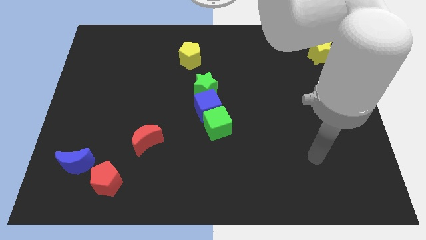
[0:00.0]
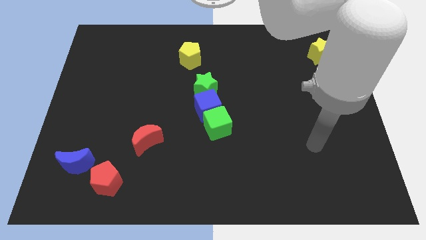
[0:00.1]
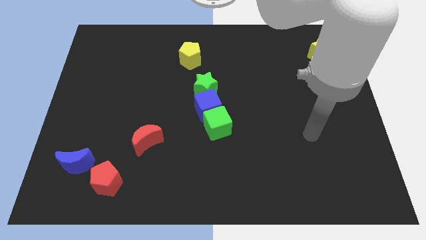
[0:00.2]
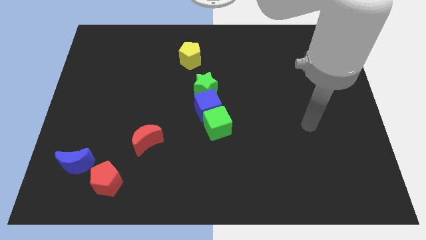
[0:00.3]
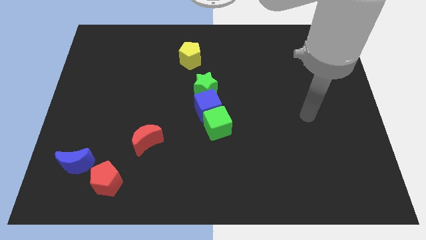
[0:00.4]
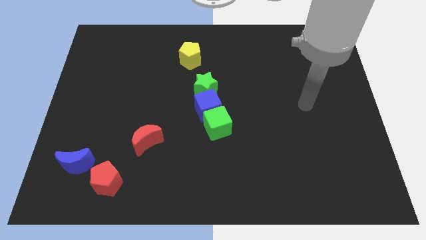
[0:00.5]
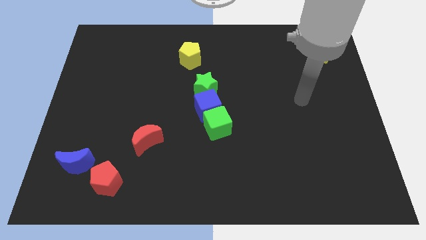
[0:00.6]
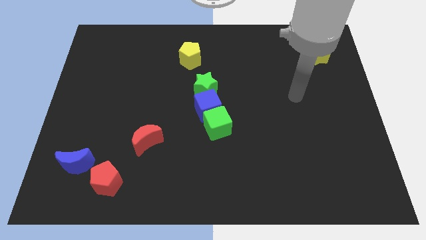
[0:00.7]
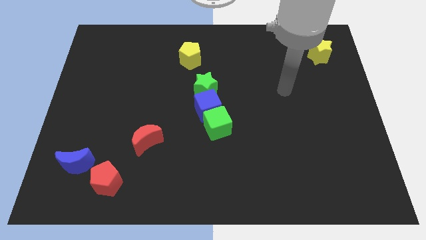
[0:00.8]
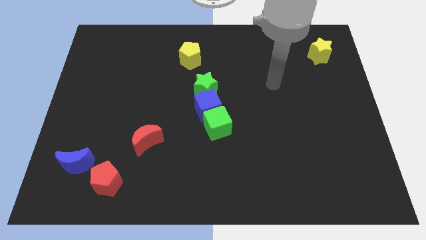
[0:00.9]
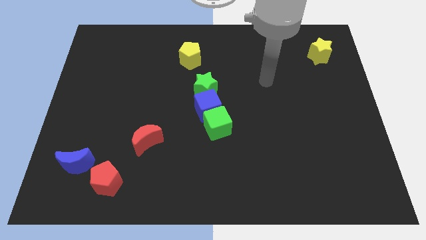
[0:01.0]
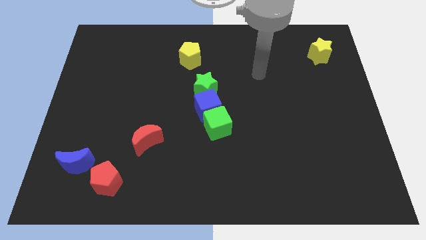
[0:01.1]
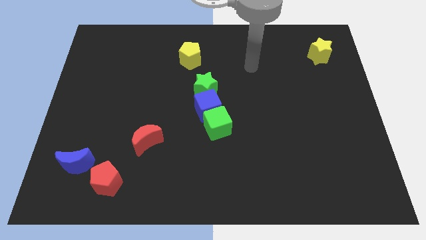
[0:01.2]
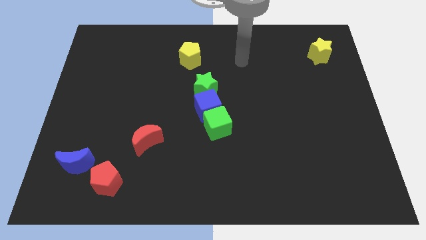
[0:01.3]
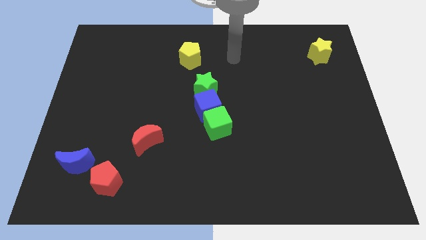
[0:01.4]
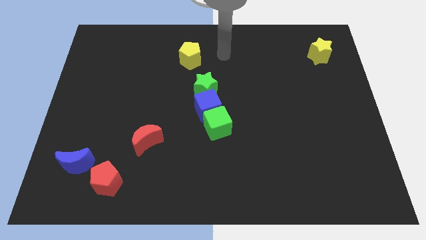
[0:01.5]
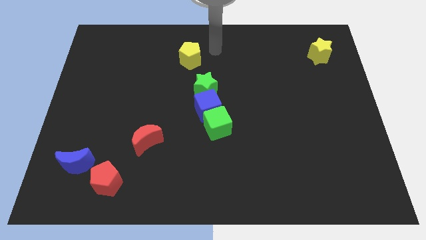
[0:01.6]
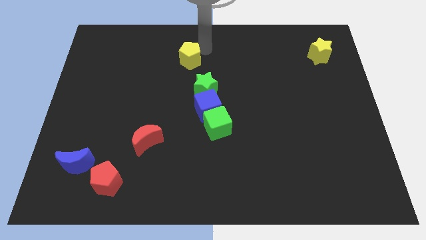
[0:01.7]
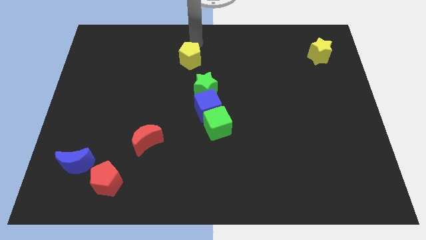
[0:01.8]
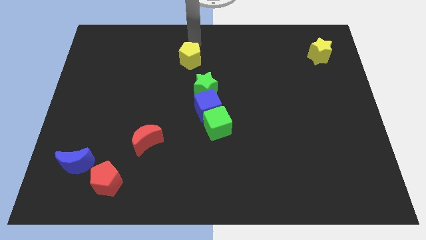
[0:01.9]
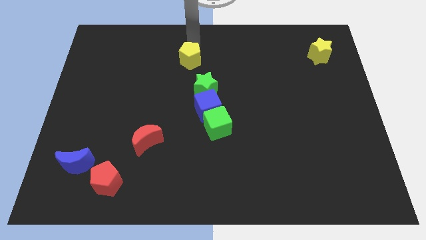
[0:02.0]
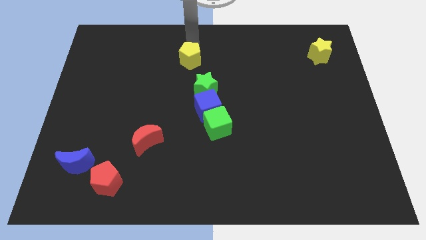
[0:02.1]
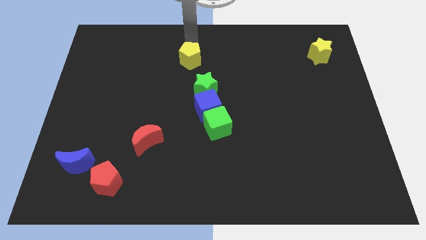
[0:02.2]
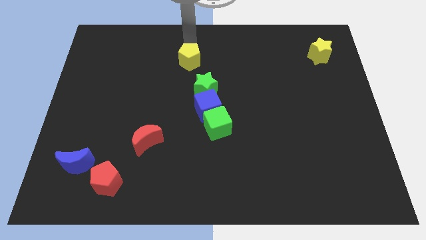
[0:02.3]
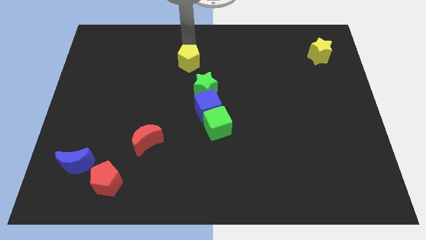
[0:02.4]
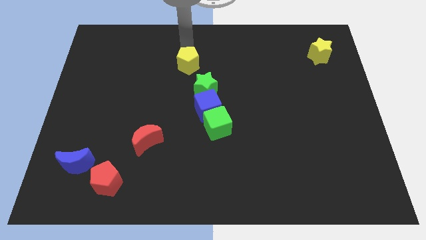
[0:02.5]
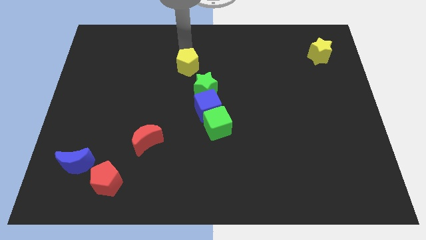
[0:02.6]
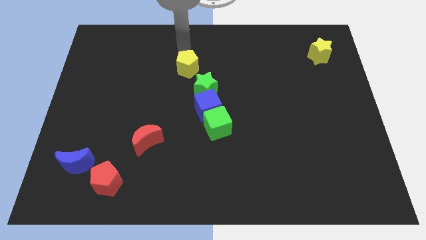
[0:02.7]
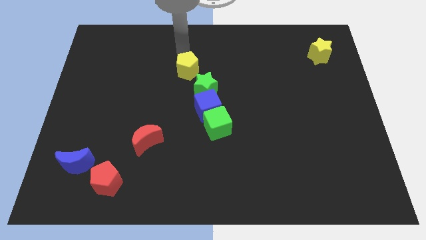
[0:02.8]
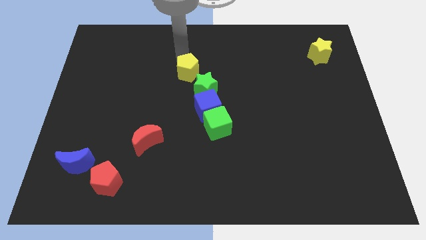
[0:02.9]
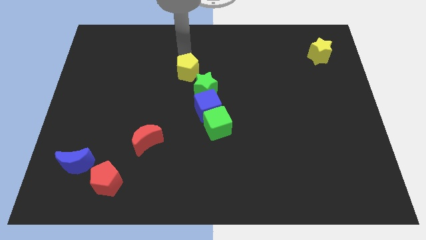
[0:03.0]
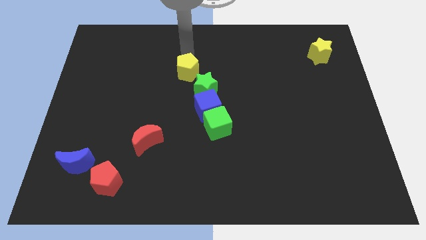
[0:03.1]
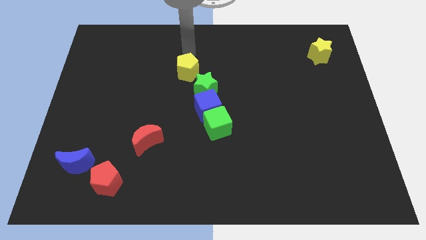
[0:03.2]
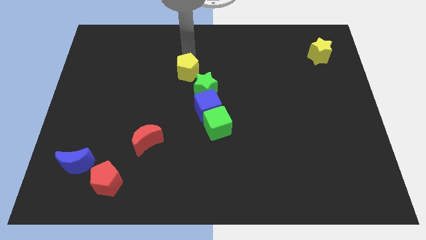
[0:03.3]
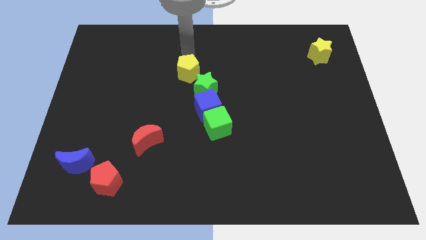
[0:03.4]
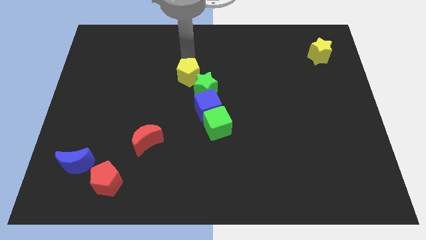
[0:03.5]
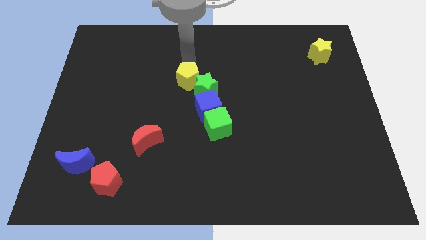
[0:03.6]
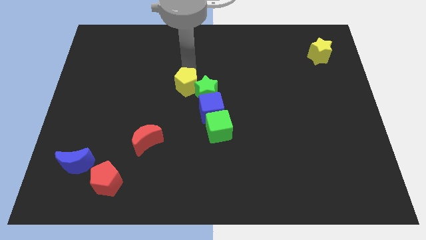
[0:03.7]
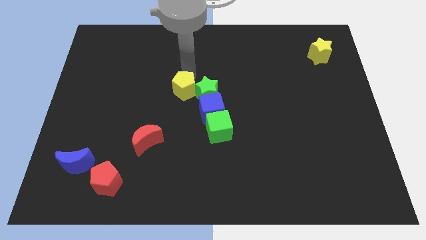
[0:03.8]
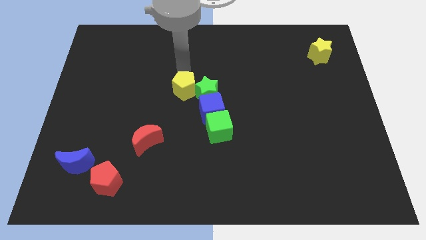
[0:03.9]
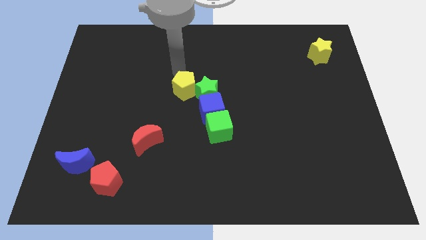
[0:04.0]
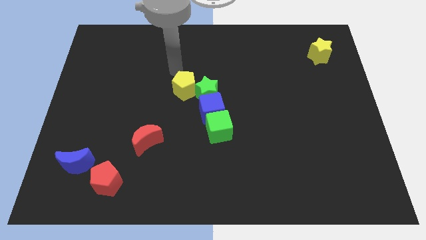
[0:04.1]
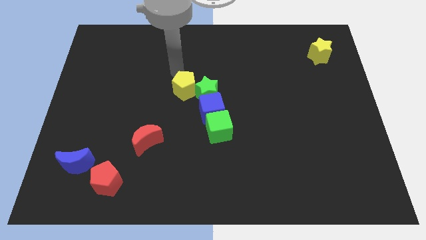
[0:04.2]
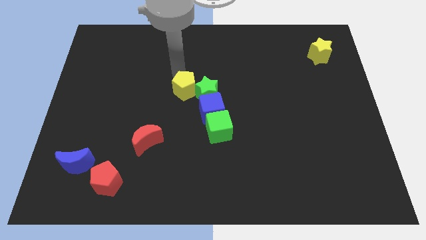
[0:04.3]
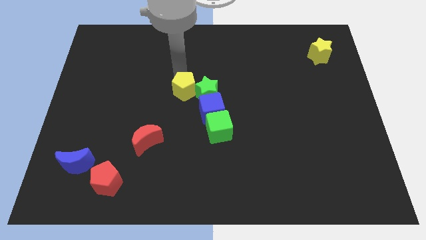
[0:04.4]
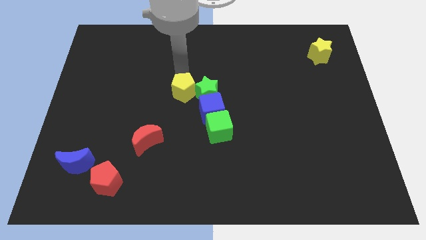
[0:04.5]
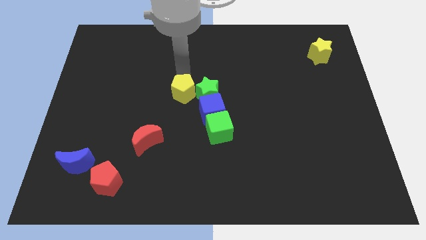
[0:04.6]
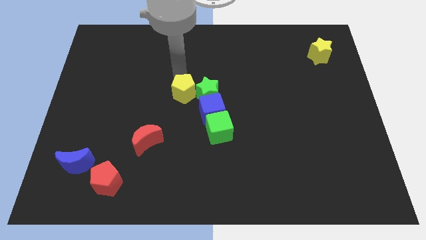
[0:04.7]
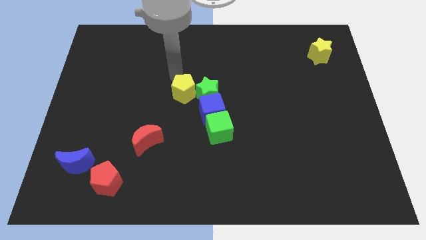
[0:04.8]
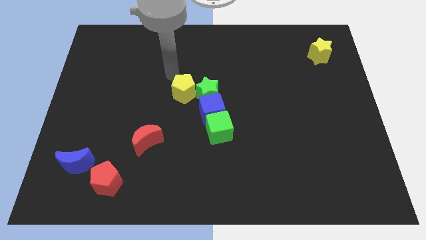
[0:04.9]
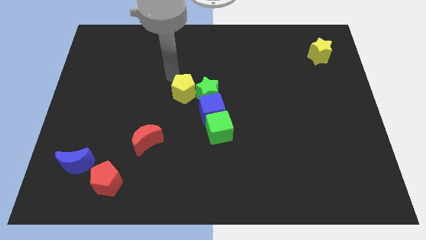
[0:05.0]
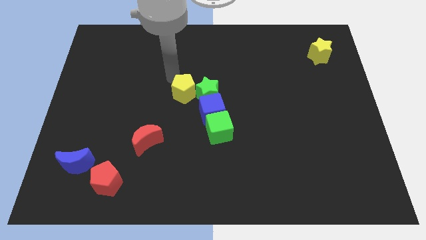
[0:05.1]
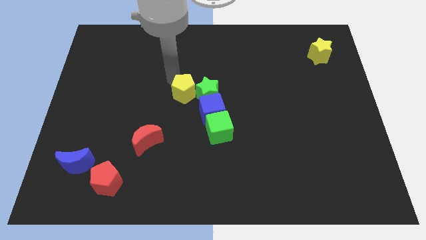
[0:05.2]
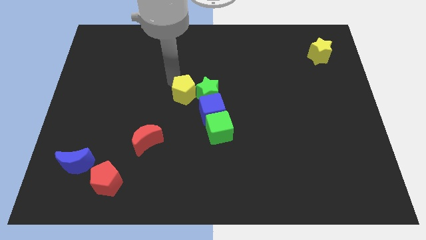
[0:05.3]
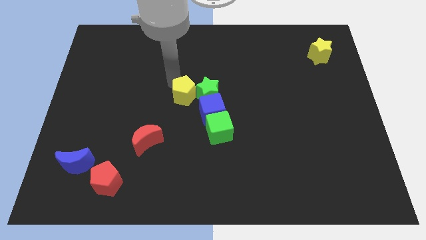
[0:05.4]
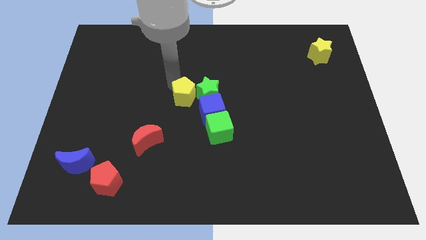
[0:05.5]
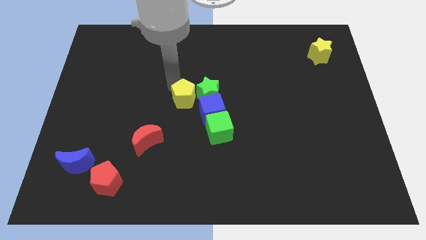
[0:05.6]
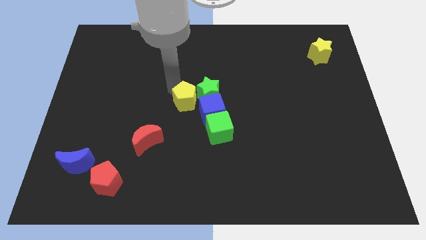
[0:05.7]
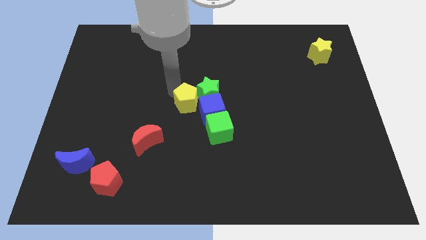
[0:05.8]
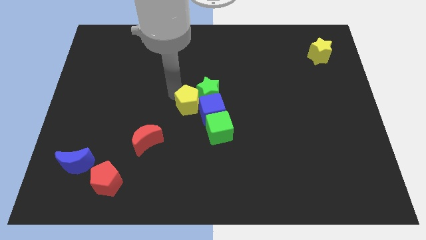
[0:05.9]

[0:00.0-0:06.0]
slide the yellow pentagon towards the blue cube

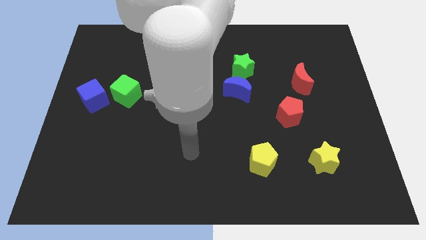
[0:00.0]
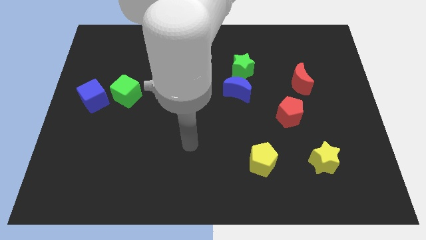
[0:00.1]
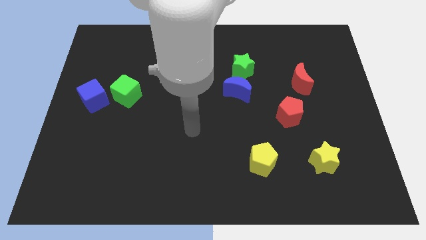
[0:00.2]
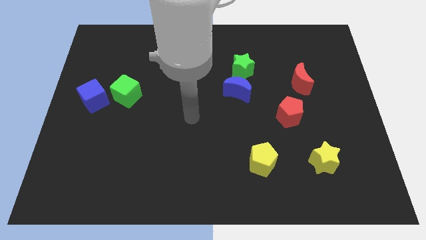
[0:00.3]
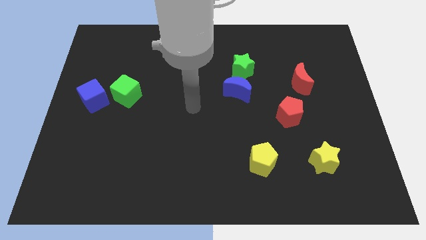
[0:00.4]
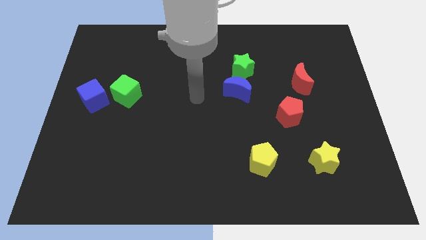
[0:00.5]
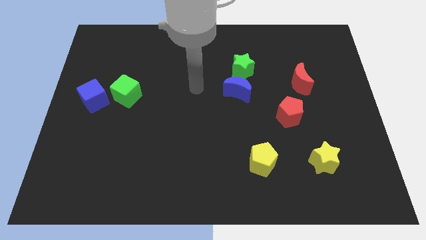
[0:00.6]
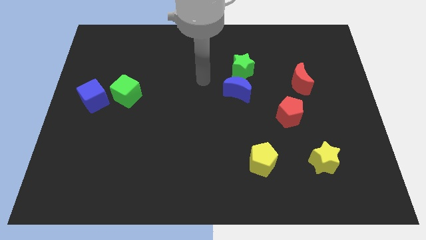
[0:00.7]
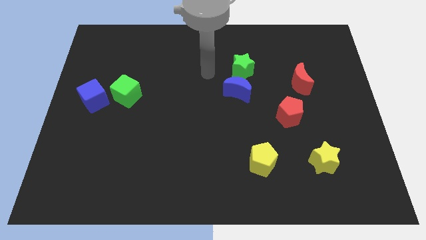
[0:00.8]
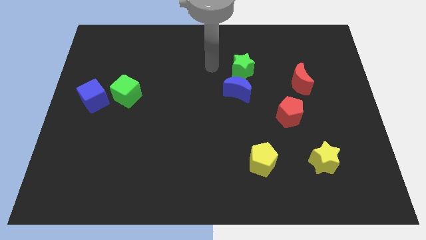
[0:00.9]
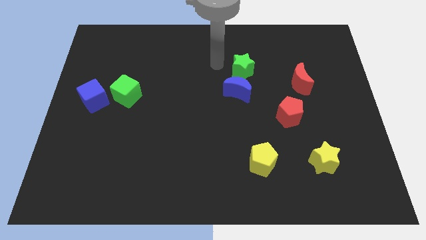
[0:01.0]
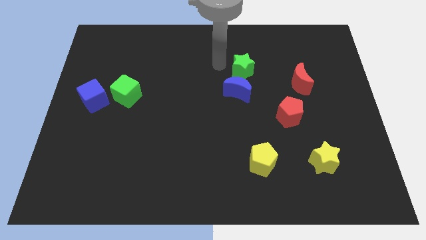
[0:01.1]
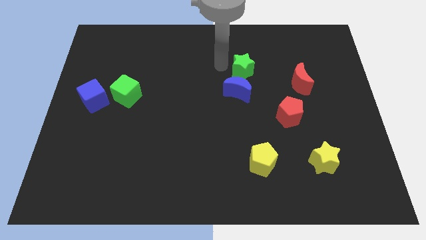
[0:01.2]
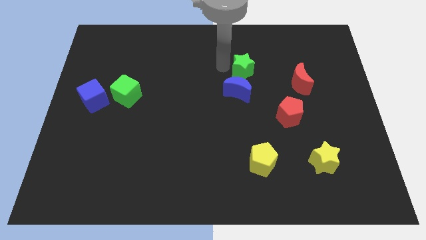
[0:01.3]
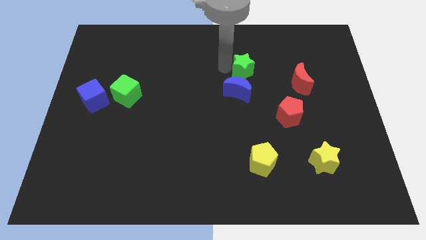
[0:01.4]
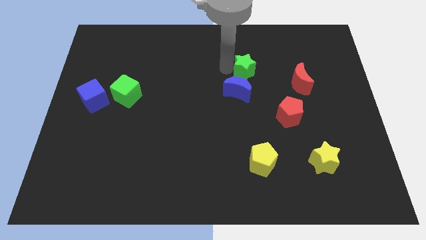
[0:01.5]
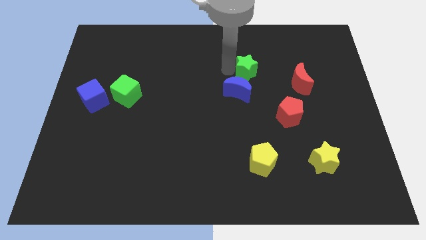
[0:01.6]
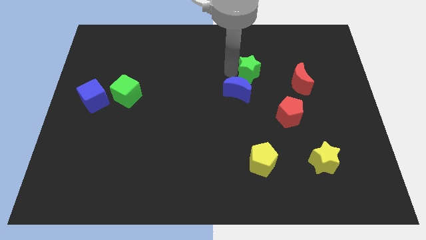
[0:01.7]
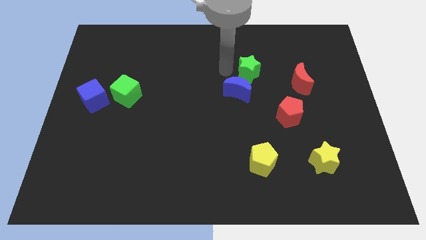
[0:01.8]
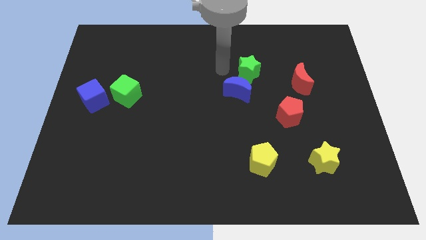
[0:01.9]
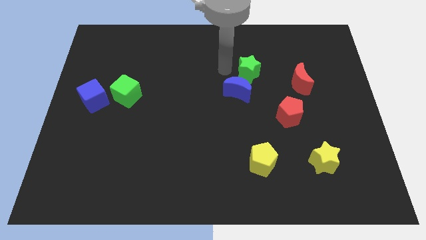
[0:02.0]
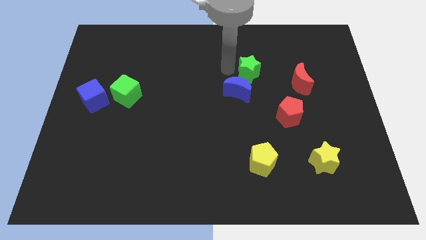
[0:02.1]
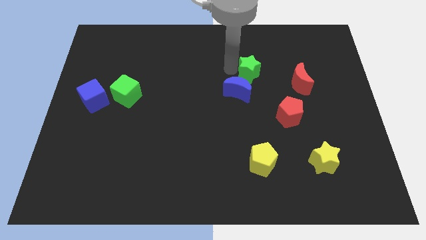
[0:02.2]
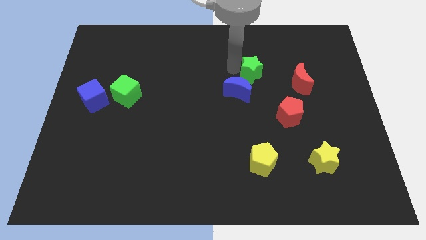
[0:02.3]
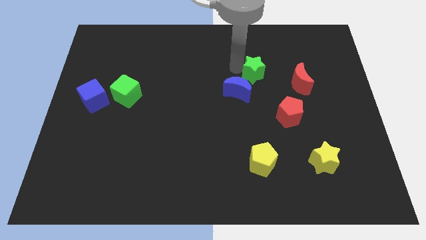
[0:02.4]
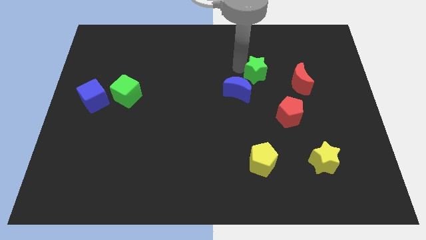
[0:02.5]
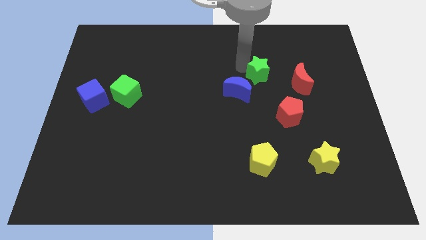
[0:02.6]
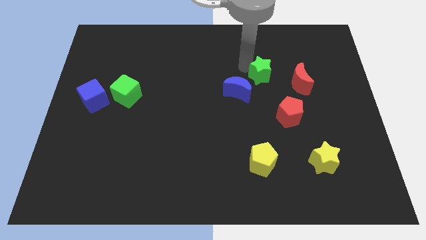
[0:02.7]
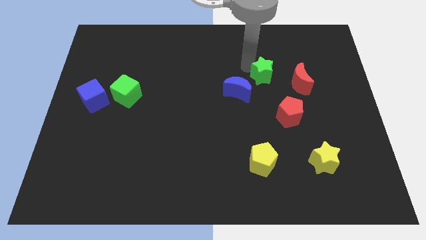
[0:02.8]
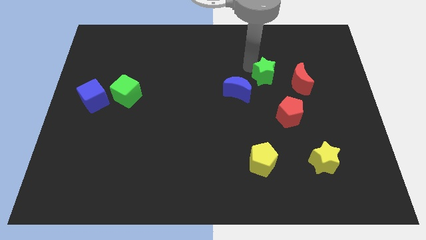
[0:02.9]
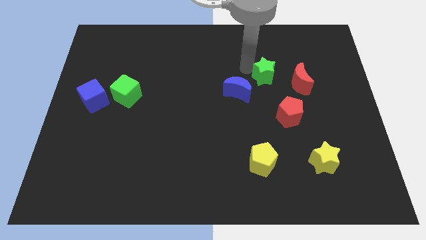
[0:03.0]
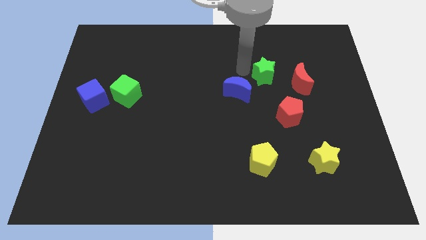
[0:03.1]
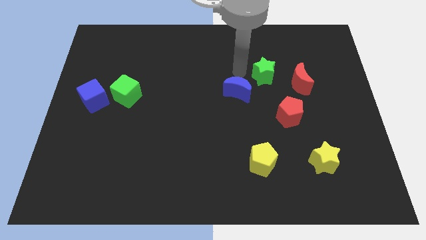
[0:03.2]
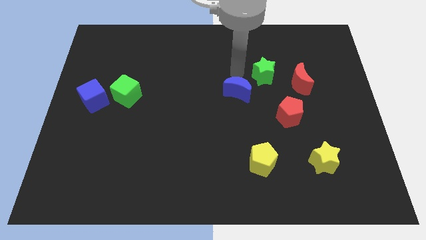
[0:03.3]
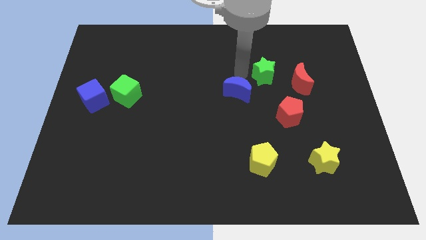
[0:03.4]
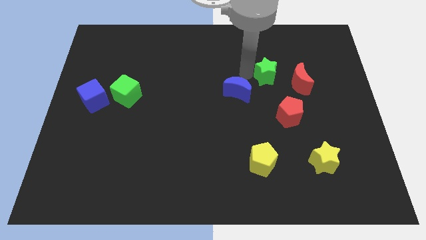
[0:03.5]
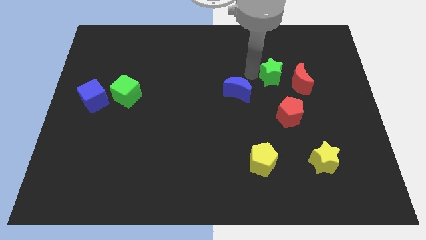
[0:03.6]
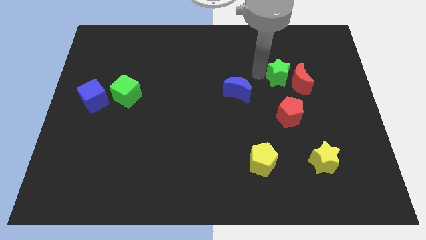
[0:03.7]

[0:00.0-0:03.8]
move the green star towards the red moon
